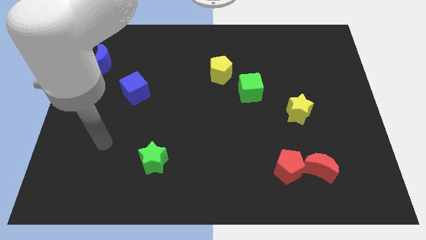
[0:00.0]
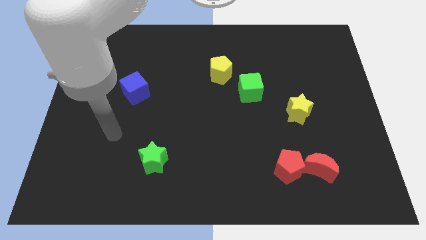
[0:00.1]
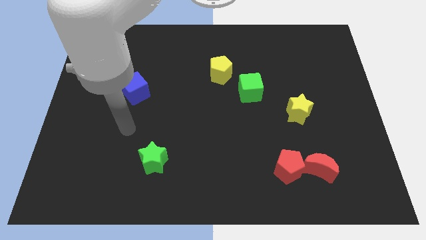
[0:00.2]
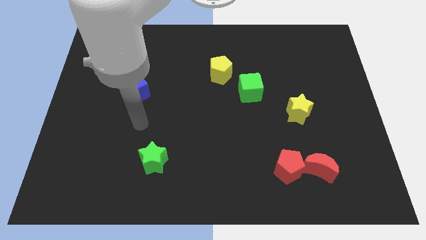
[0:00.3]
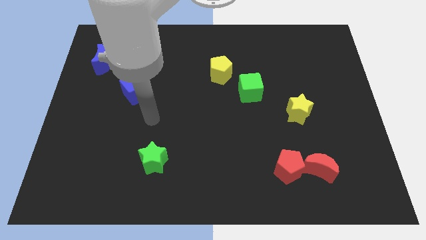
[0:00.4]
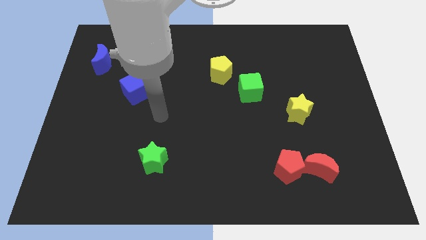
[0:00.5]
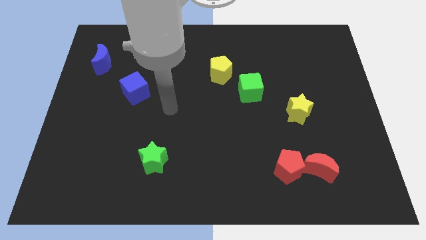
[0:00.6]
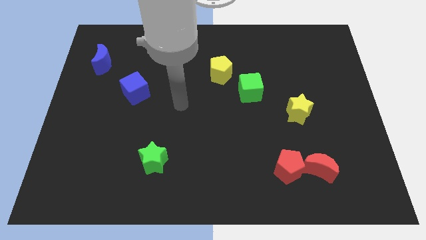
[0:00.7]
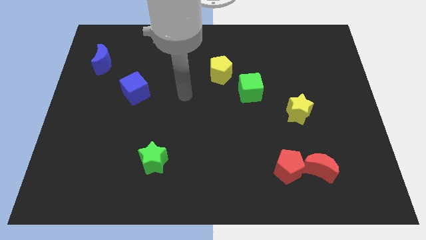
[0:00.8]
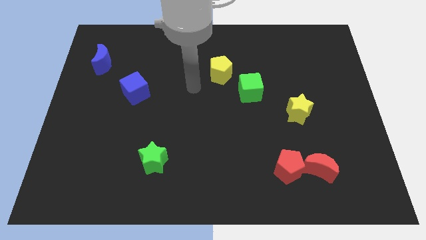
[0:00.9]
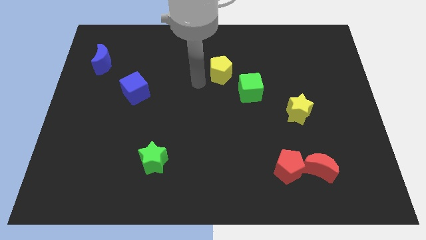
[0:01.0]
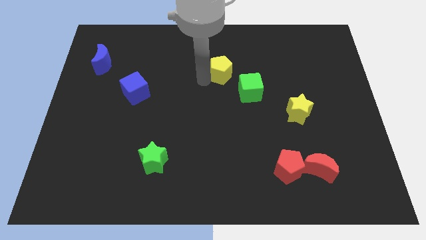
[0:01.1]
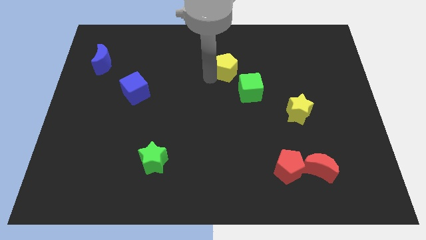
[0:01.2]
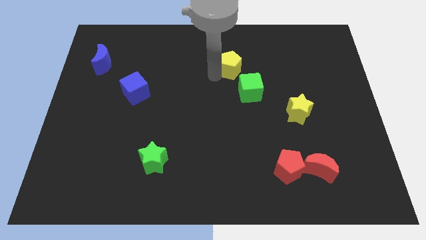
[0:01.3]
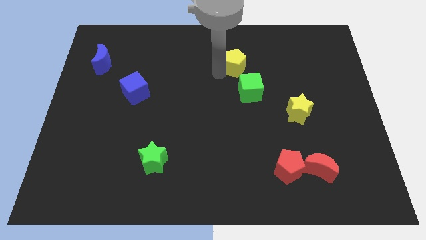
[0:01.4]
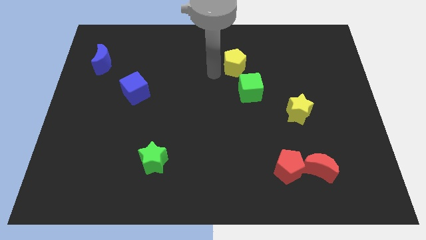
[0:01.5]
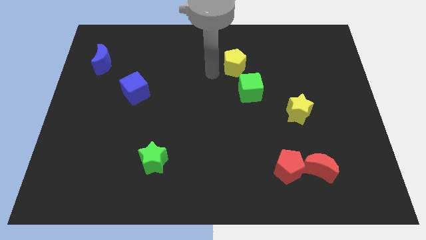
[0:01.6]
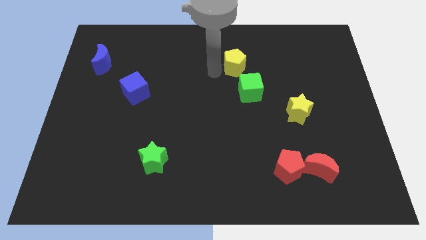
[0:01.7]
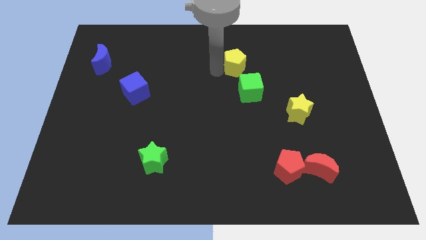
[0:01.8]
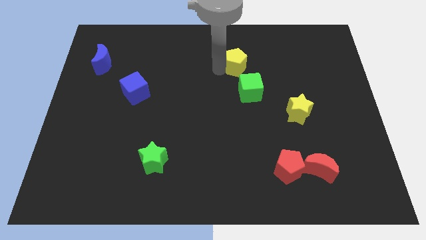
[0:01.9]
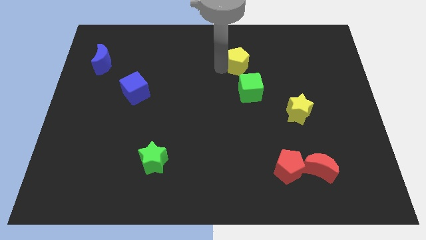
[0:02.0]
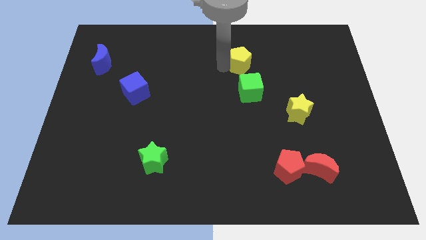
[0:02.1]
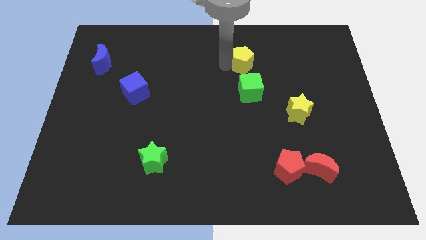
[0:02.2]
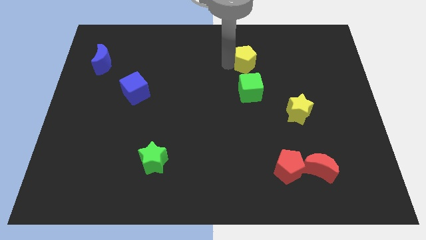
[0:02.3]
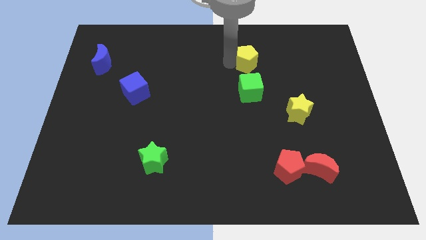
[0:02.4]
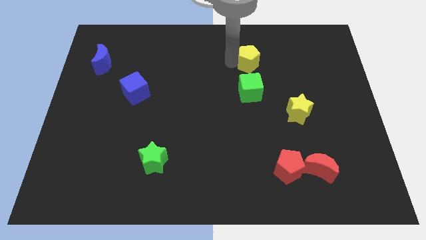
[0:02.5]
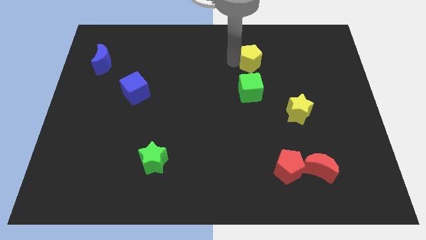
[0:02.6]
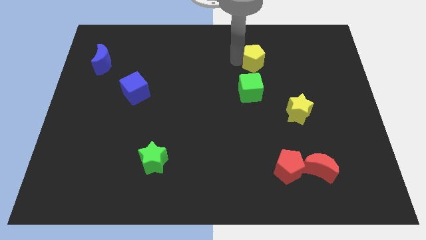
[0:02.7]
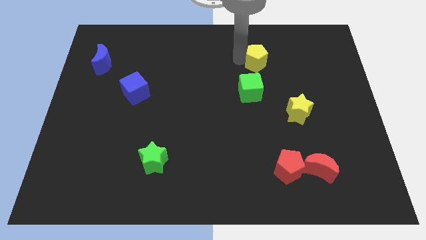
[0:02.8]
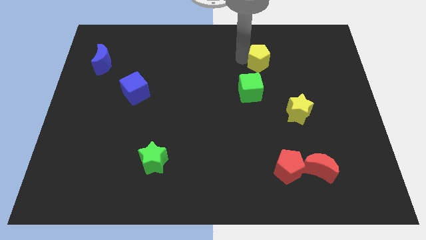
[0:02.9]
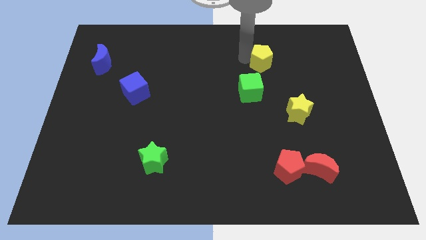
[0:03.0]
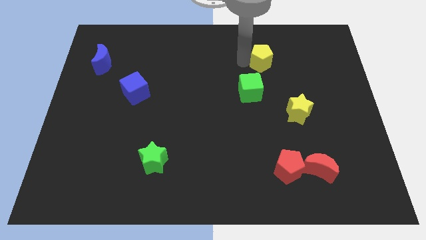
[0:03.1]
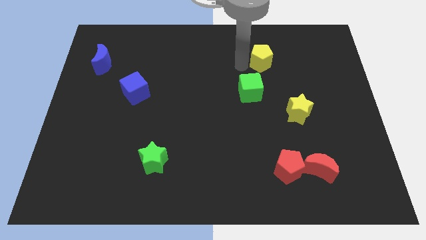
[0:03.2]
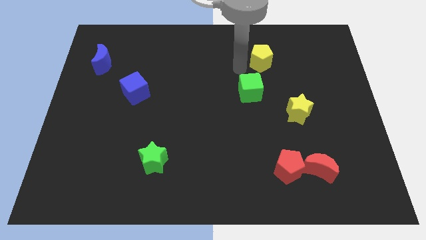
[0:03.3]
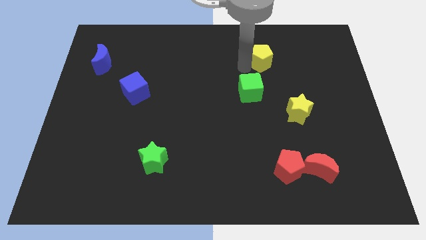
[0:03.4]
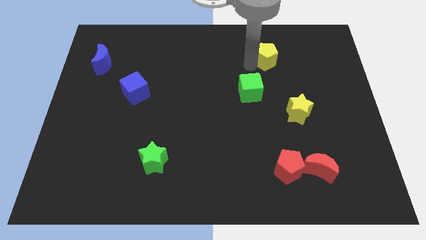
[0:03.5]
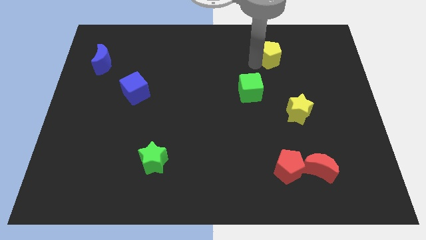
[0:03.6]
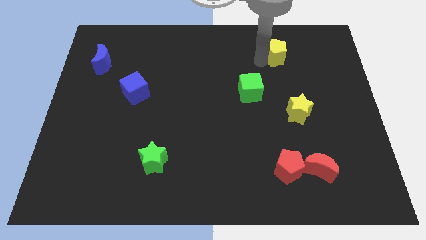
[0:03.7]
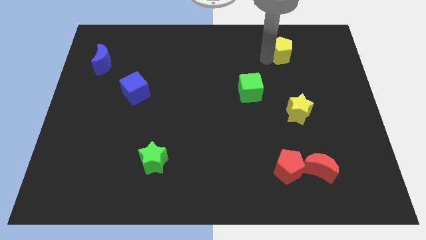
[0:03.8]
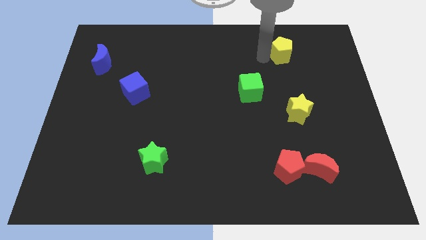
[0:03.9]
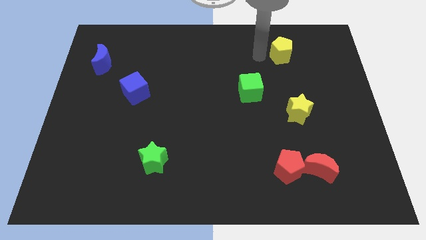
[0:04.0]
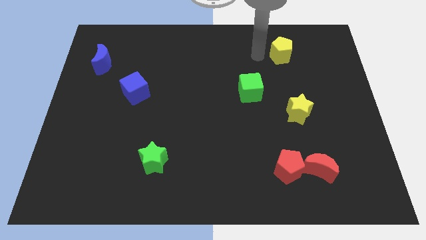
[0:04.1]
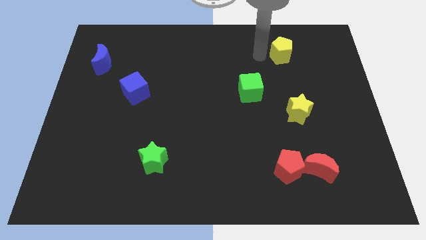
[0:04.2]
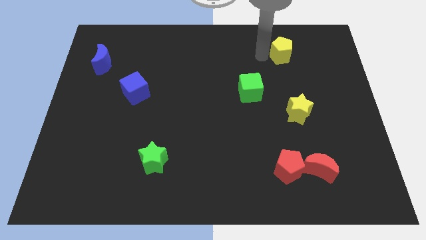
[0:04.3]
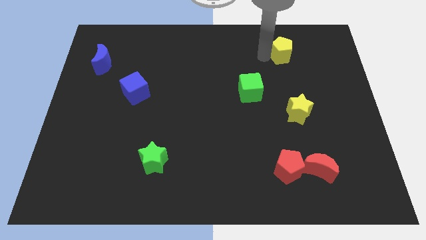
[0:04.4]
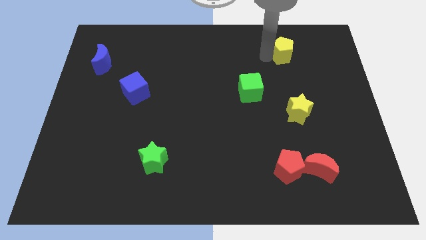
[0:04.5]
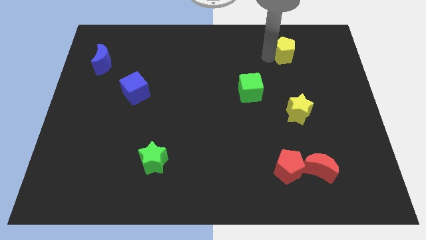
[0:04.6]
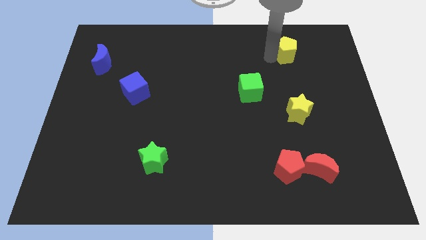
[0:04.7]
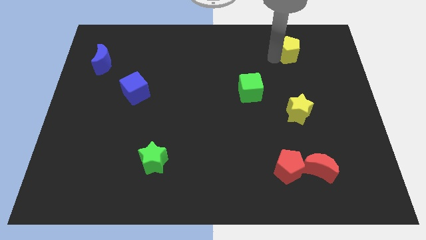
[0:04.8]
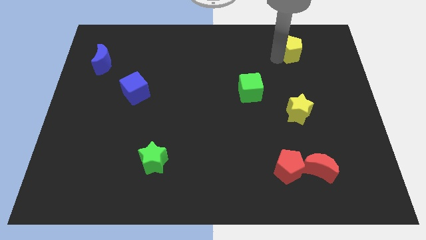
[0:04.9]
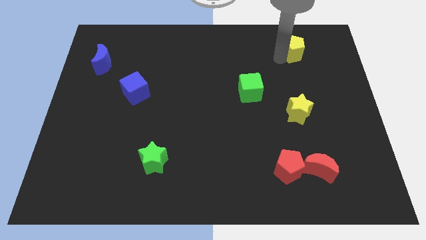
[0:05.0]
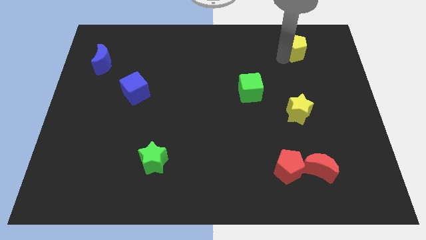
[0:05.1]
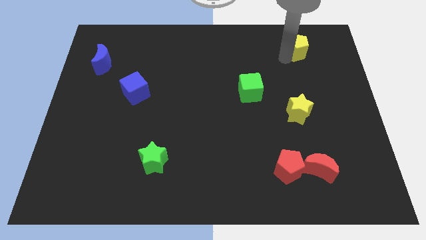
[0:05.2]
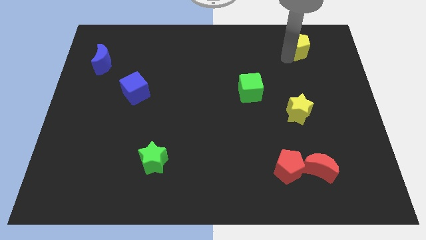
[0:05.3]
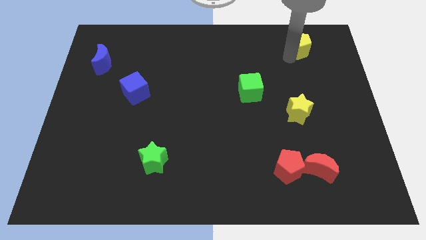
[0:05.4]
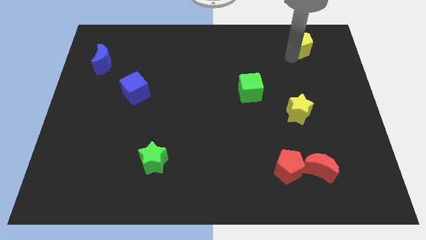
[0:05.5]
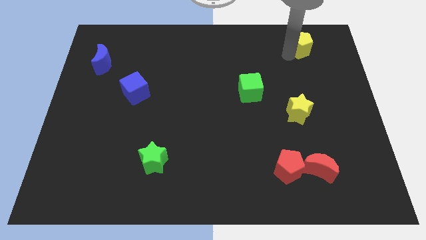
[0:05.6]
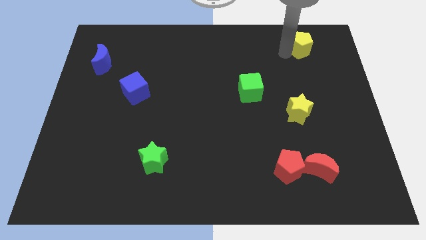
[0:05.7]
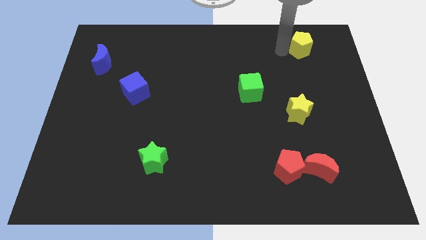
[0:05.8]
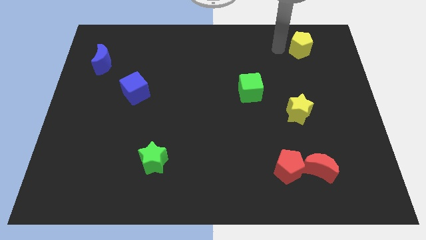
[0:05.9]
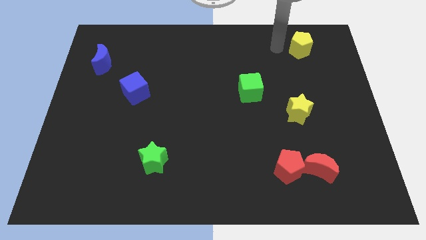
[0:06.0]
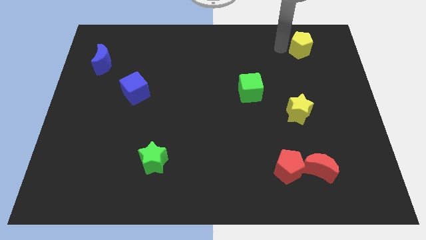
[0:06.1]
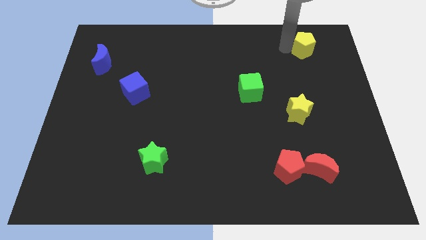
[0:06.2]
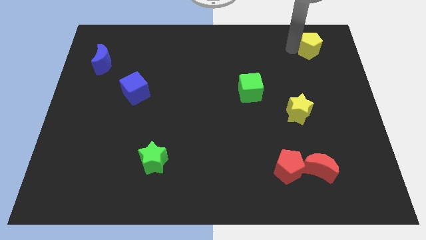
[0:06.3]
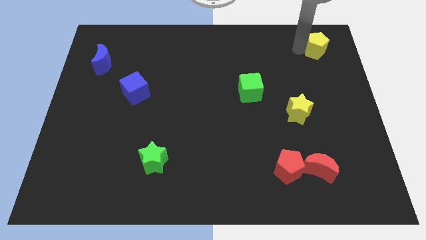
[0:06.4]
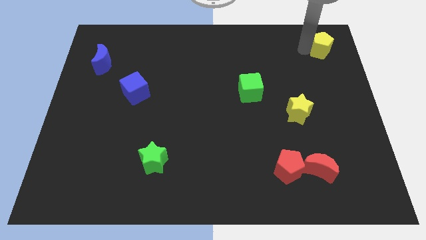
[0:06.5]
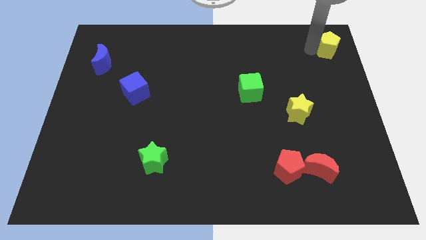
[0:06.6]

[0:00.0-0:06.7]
slide the yellow pentagon to the top right of the board
